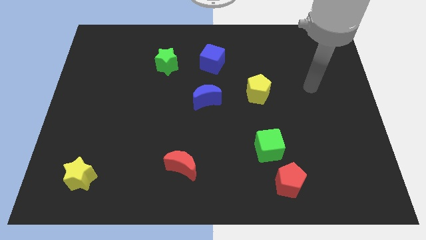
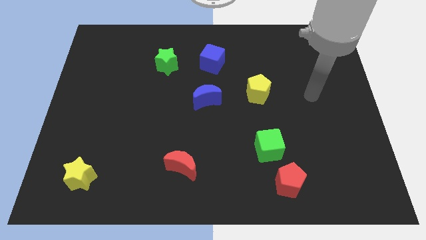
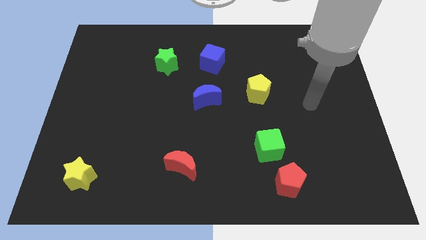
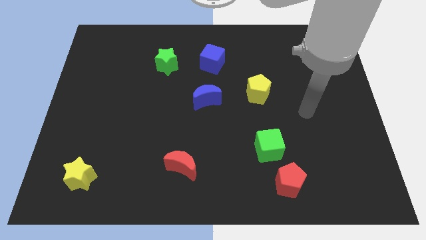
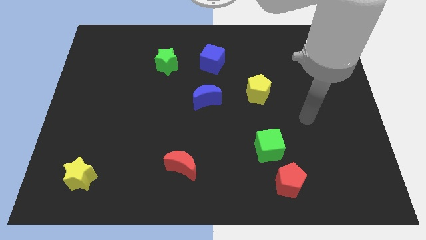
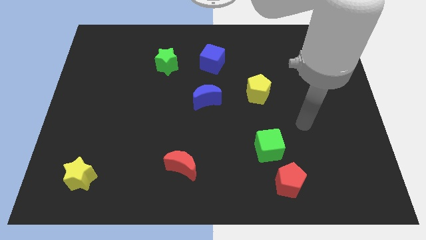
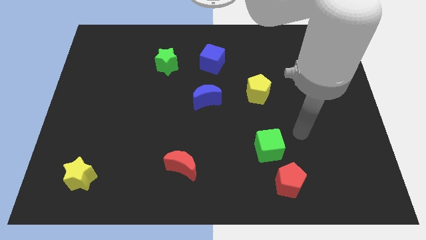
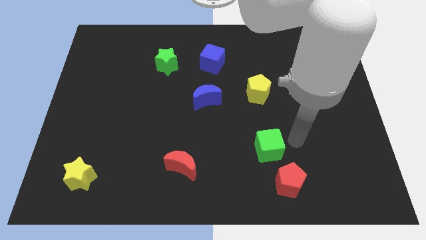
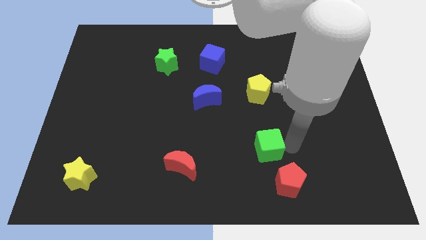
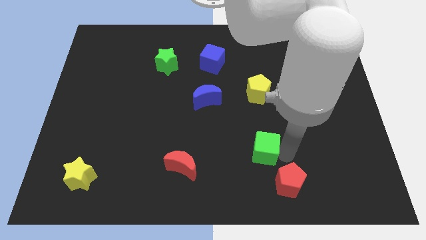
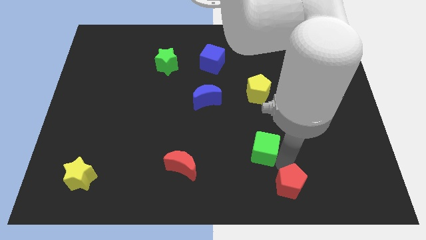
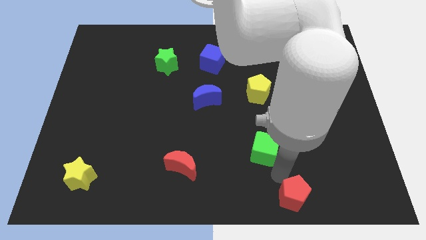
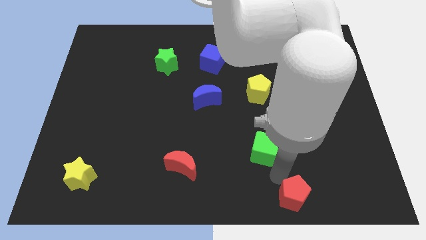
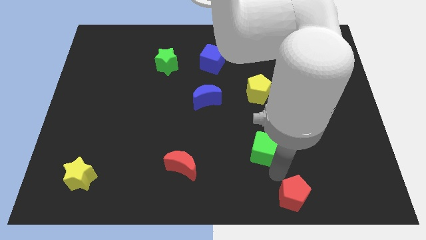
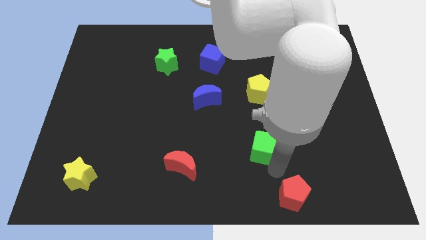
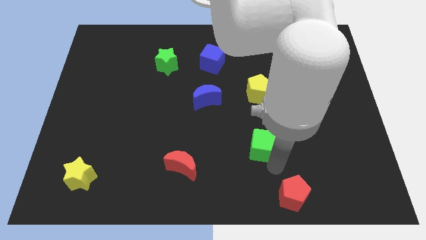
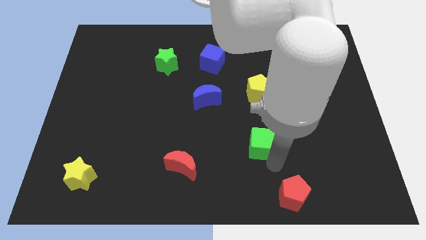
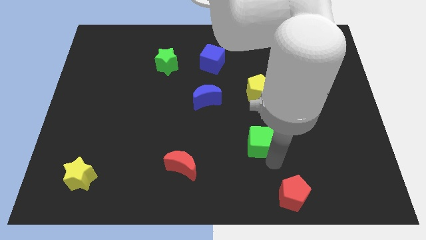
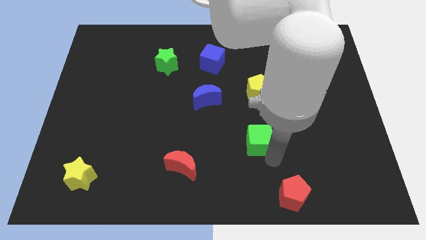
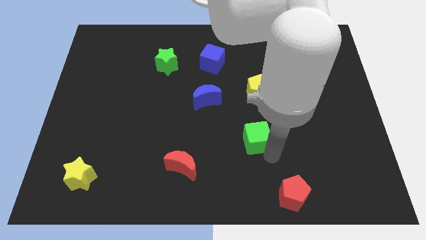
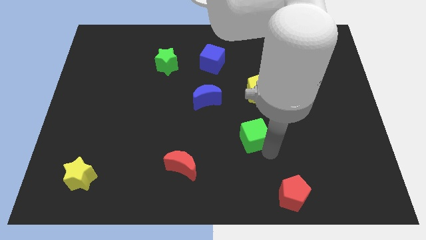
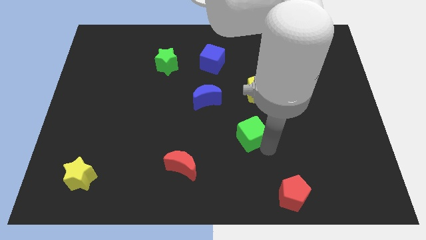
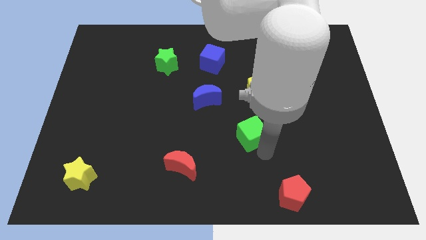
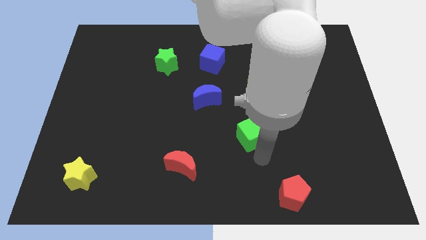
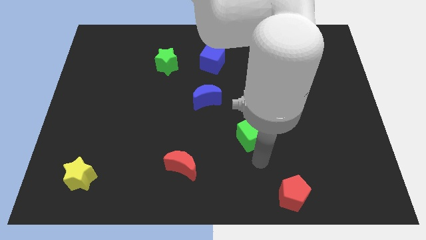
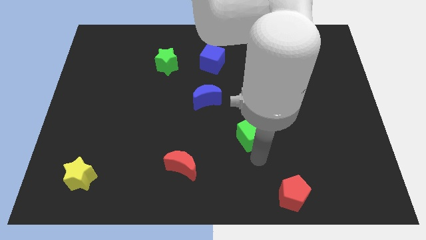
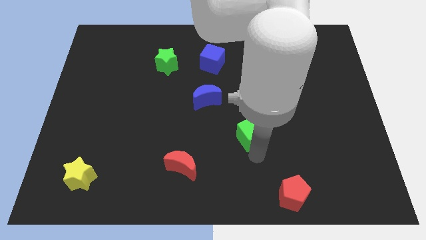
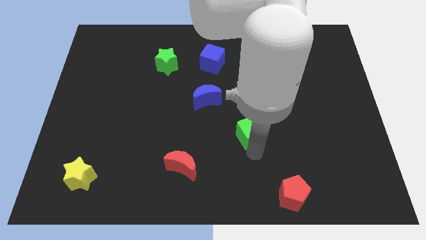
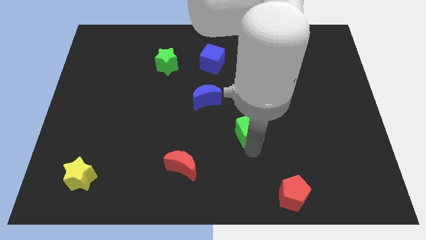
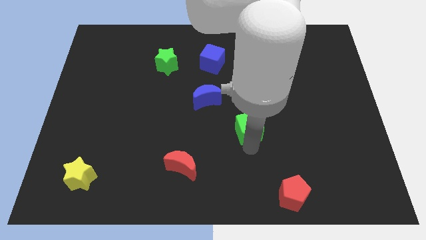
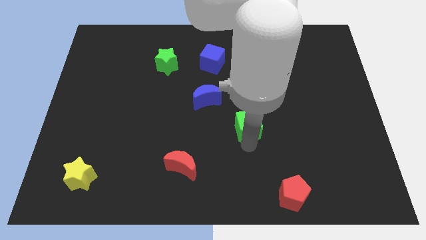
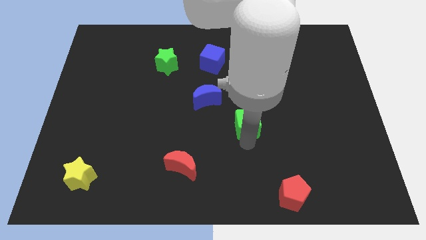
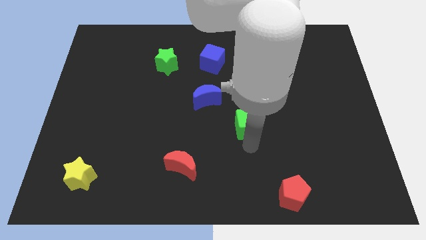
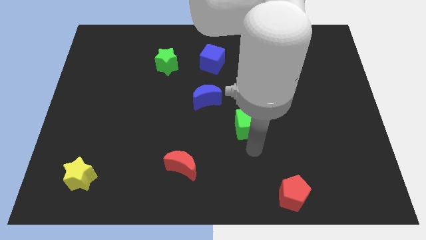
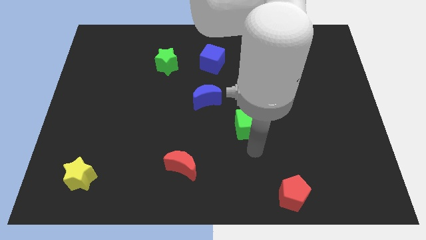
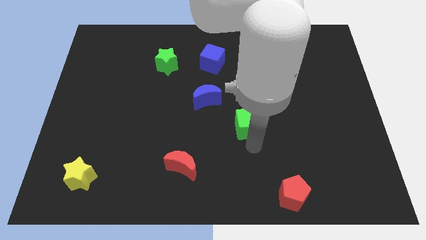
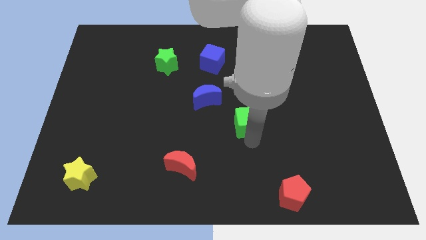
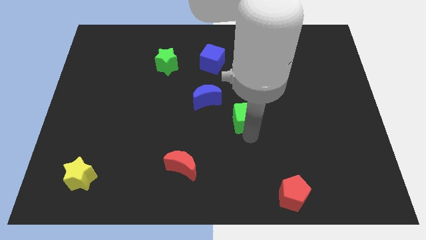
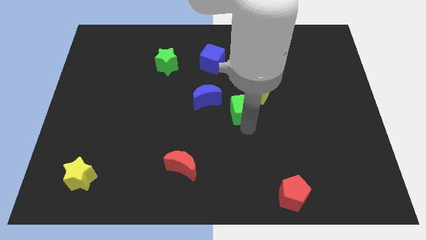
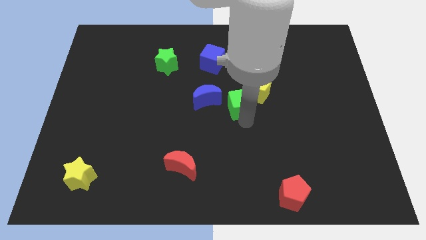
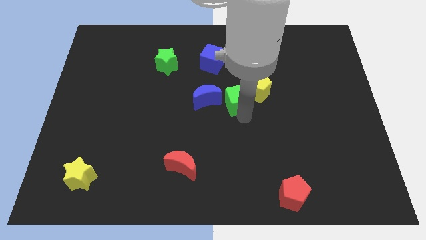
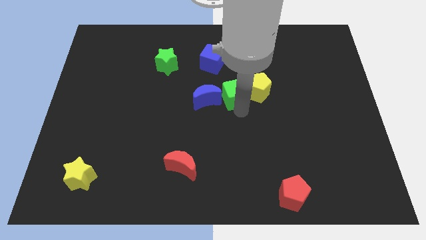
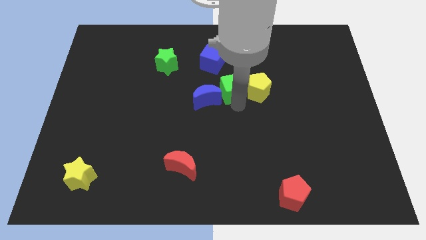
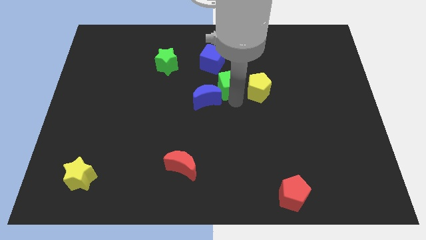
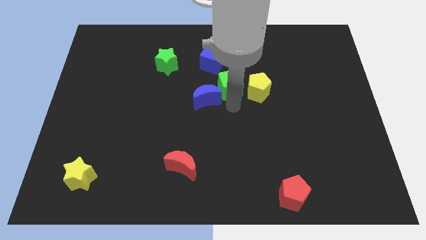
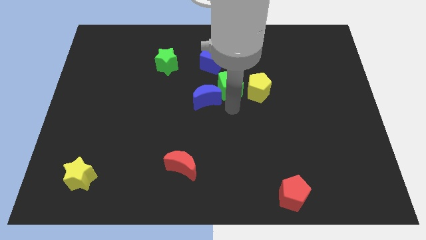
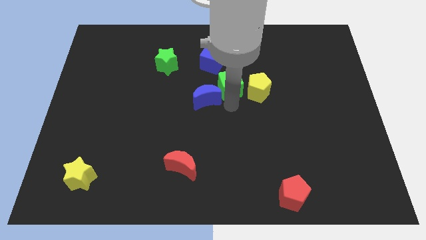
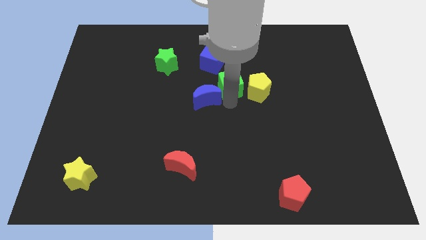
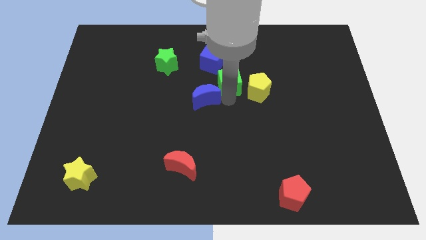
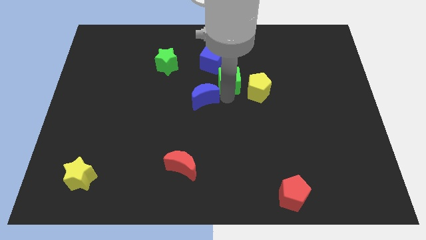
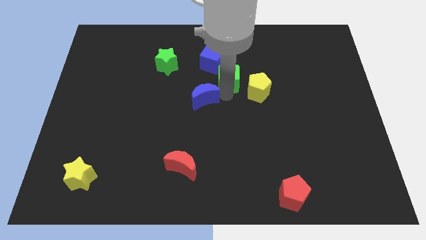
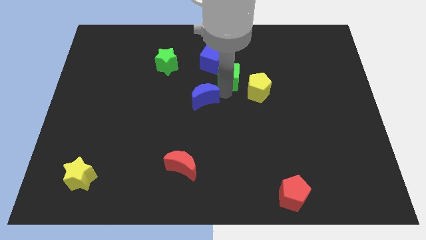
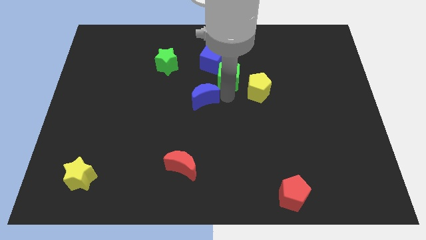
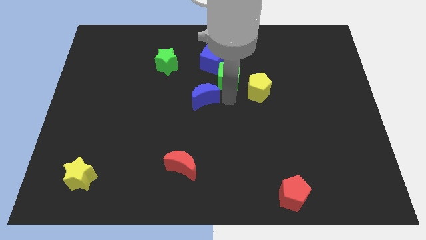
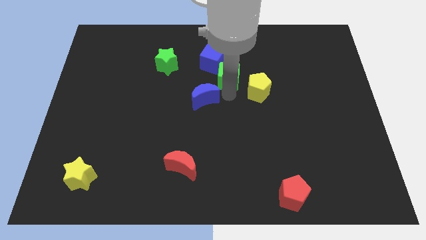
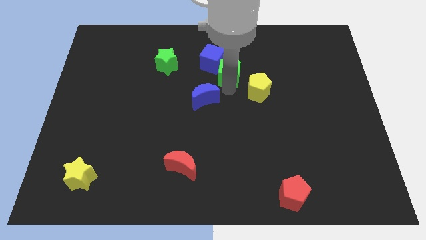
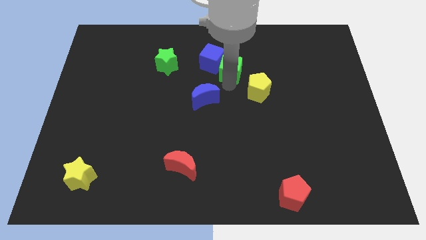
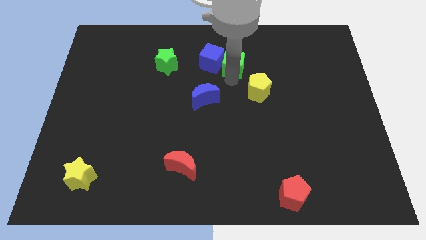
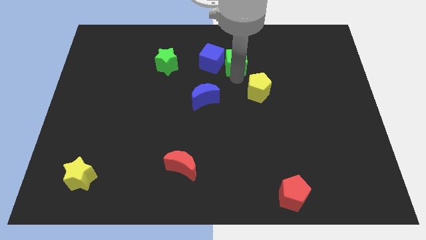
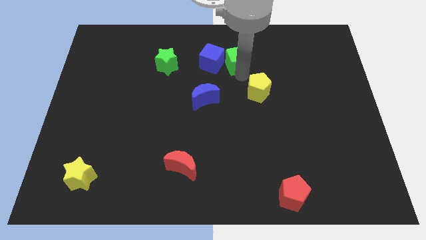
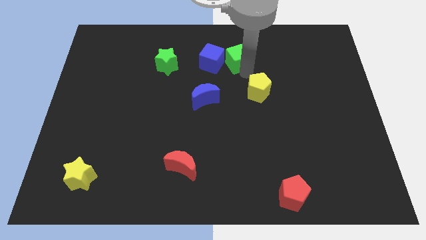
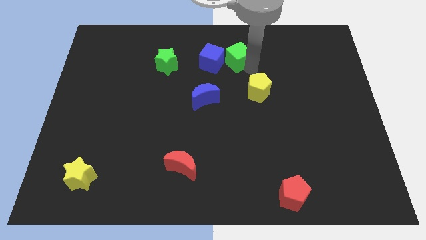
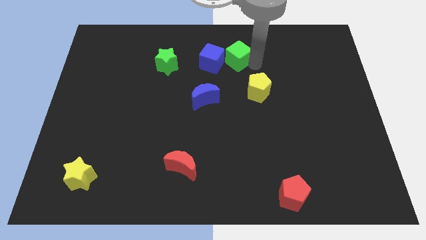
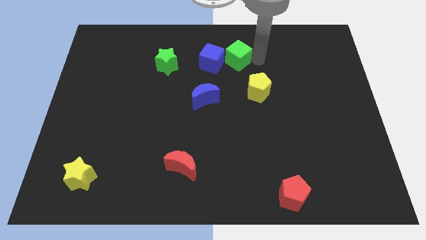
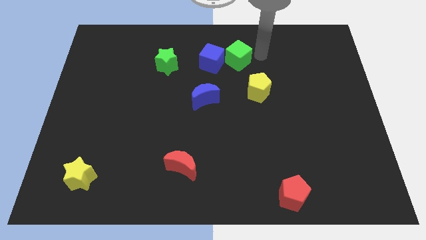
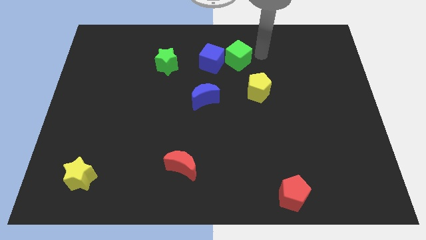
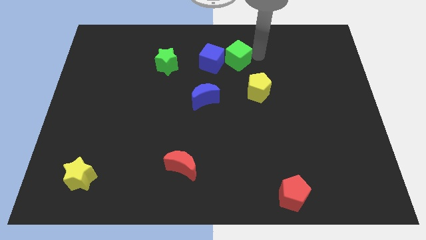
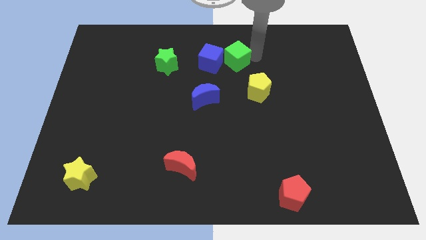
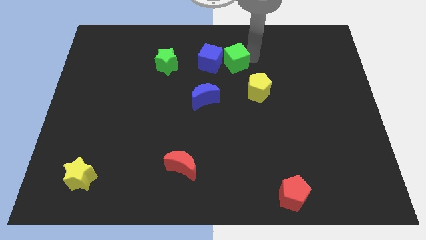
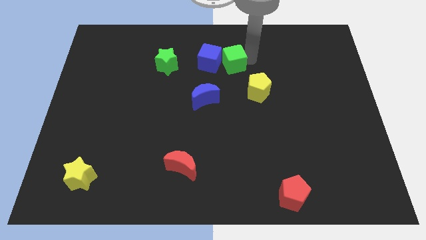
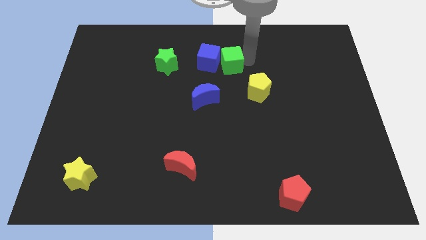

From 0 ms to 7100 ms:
push the green cube just right of the green star

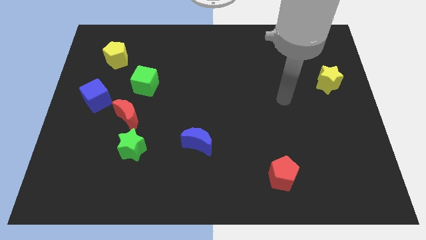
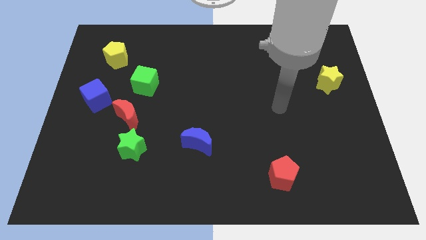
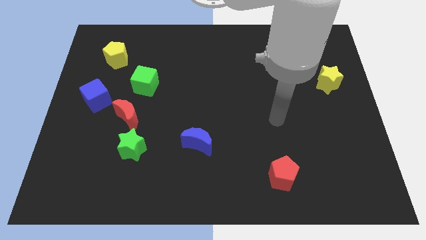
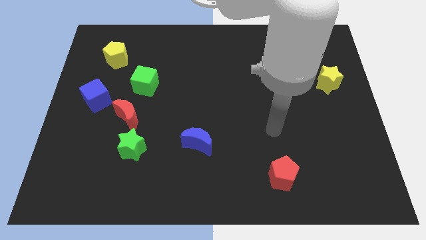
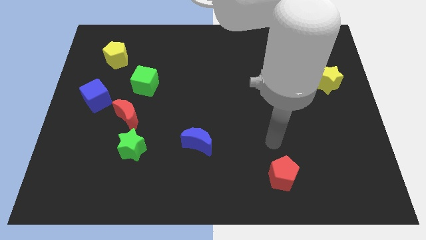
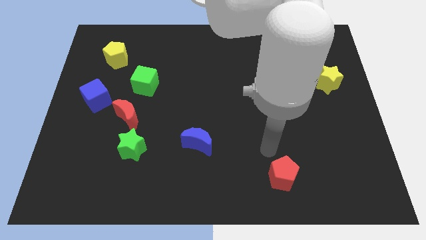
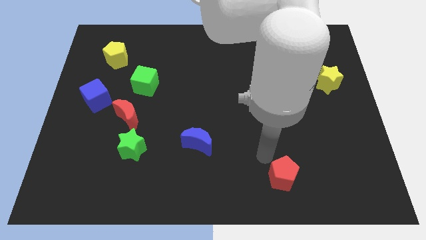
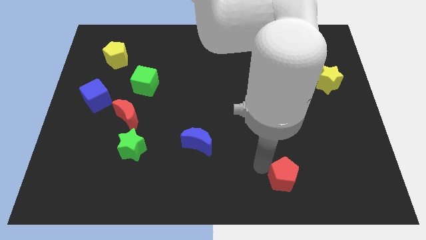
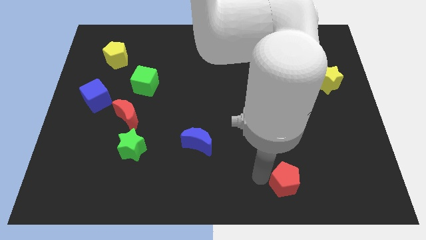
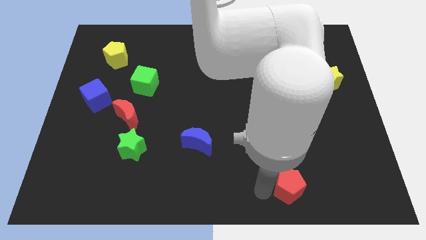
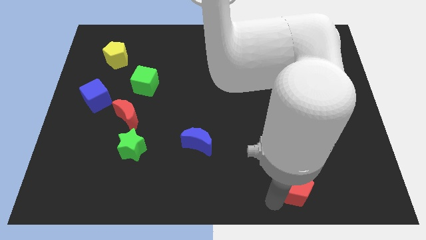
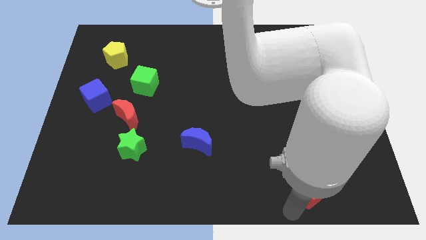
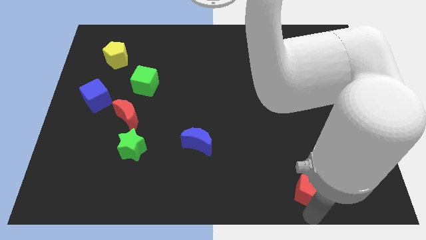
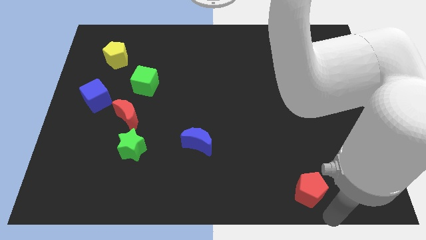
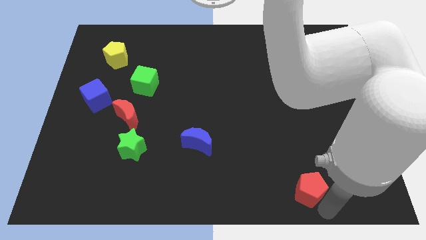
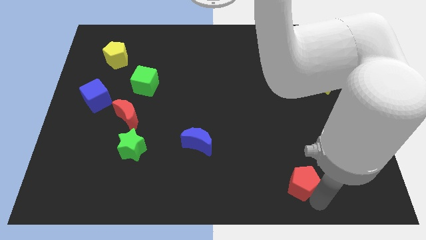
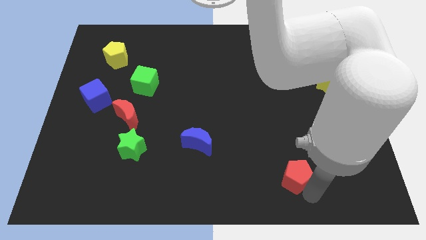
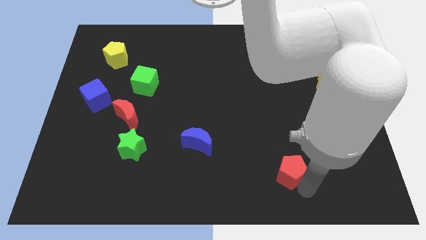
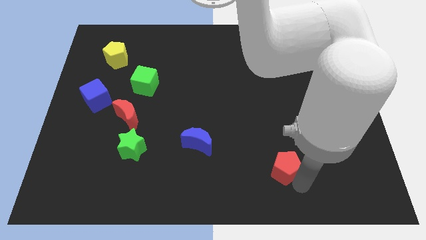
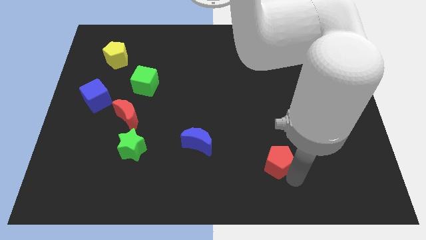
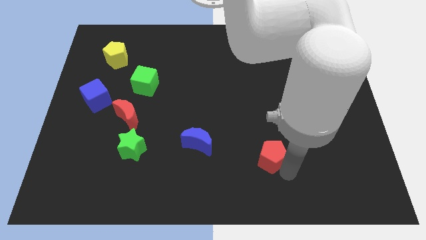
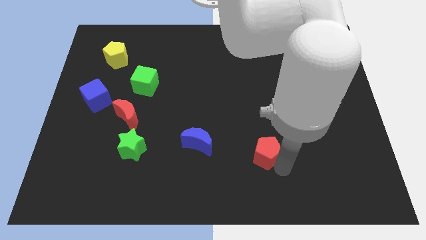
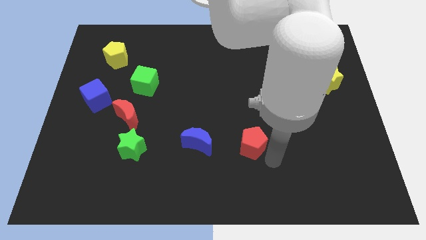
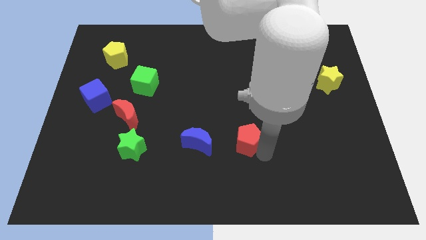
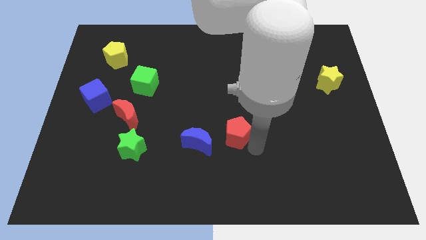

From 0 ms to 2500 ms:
push the red pentagon to the top right side of the blue moon
